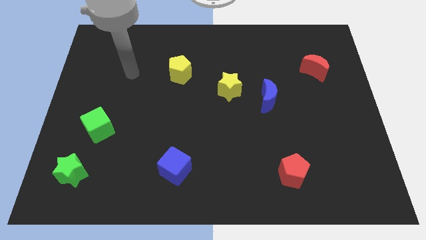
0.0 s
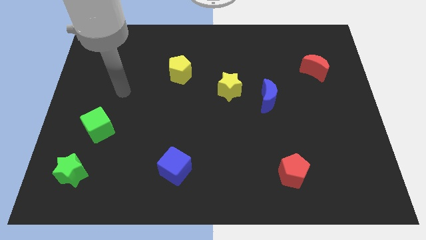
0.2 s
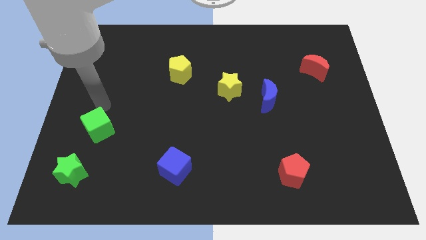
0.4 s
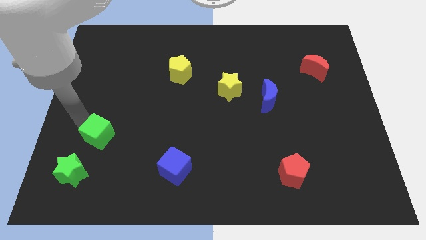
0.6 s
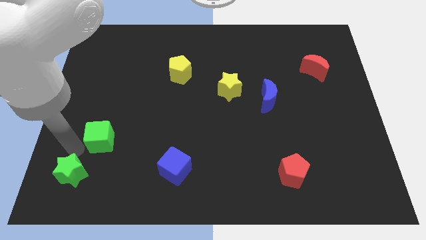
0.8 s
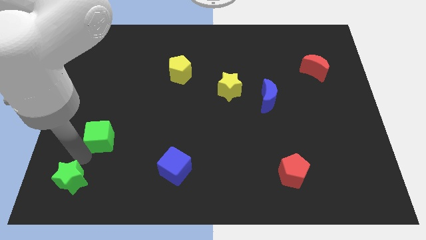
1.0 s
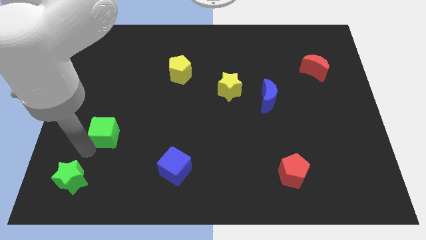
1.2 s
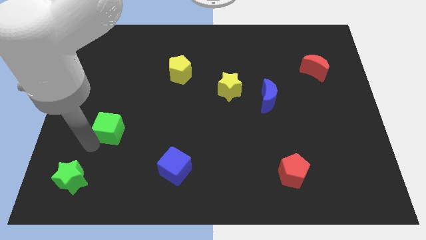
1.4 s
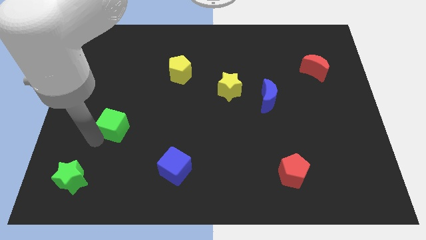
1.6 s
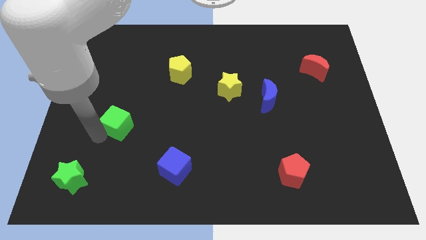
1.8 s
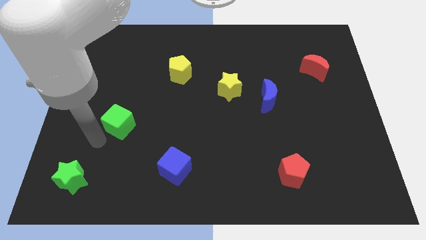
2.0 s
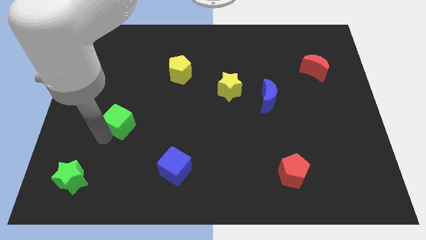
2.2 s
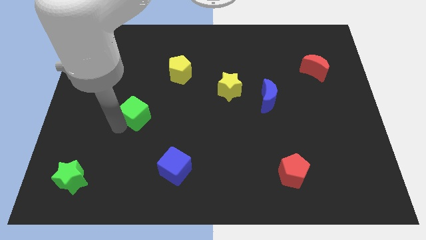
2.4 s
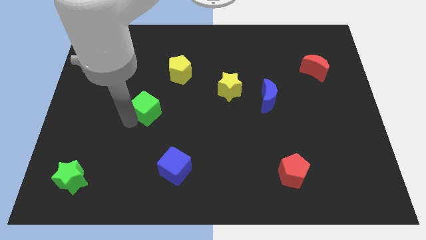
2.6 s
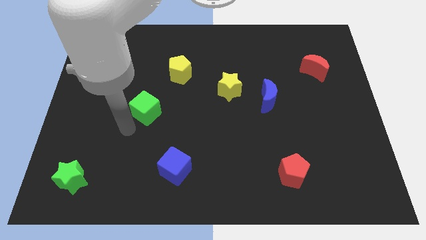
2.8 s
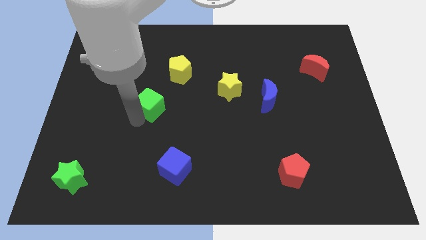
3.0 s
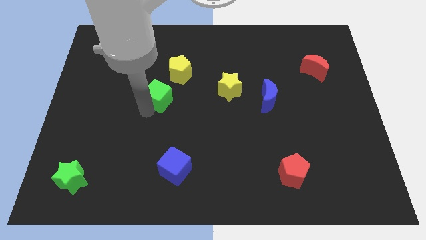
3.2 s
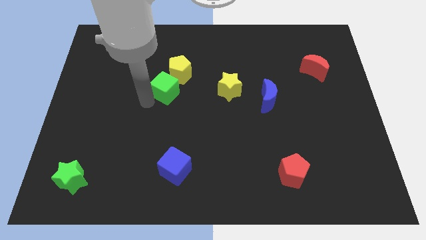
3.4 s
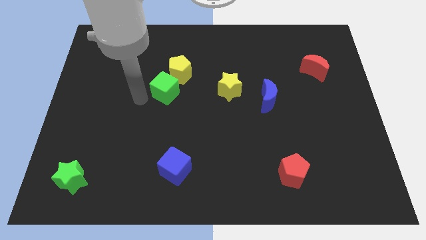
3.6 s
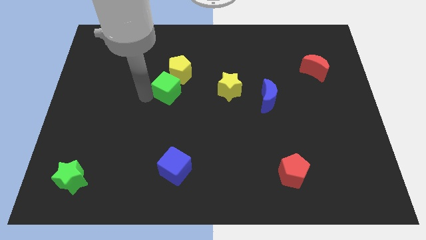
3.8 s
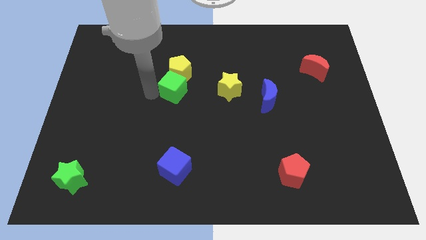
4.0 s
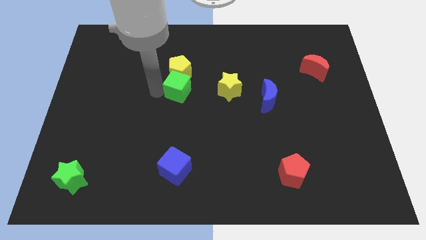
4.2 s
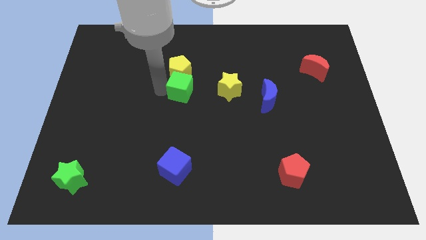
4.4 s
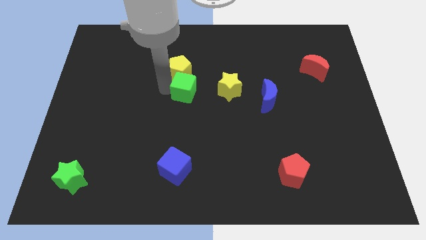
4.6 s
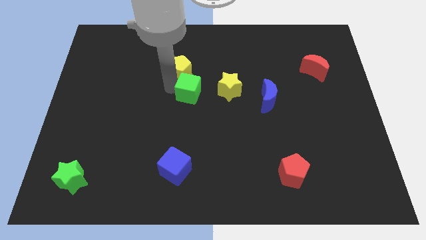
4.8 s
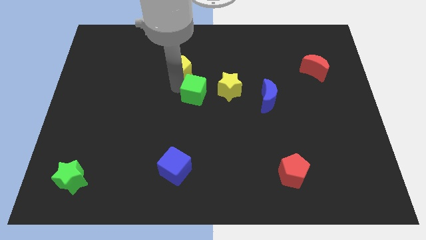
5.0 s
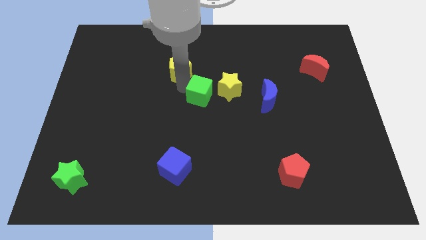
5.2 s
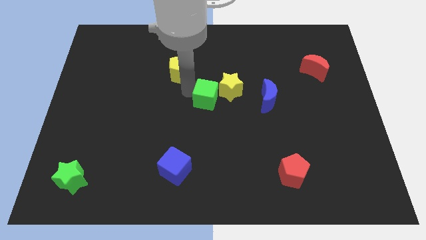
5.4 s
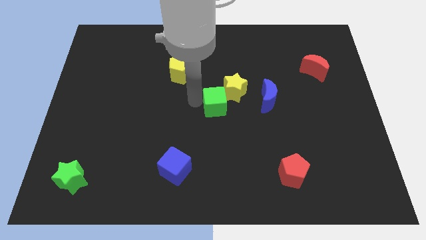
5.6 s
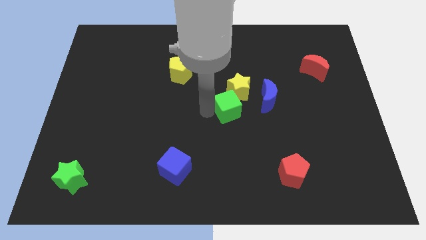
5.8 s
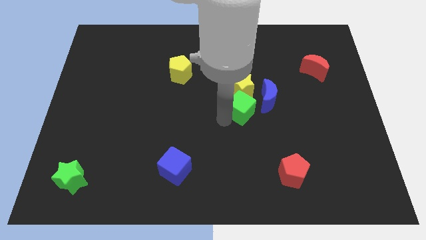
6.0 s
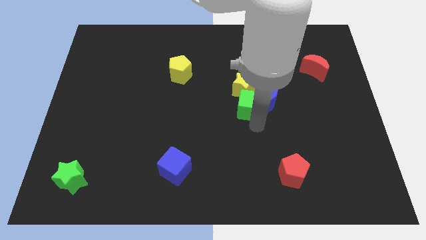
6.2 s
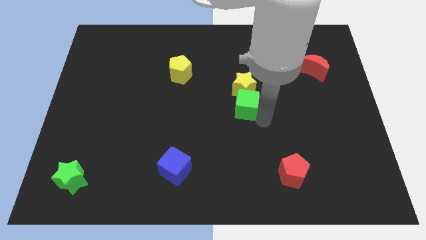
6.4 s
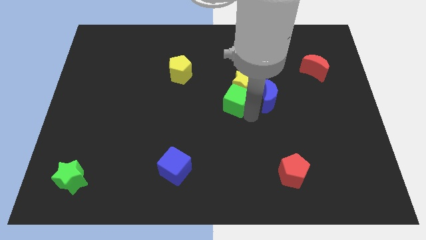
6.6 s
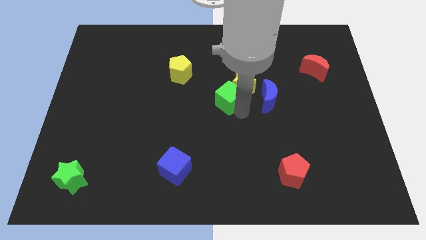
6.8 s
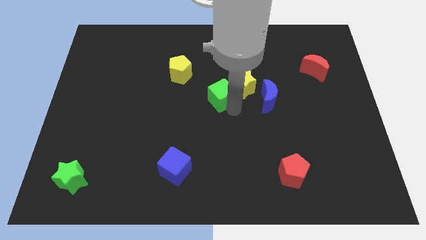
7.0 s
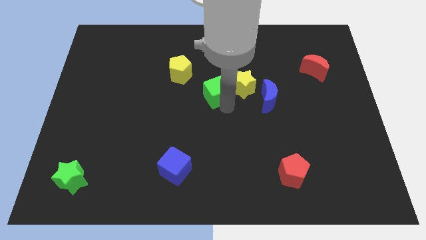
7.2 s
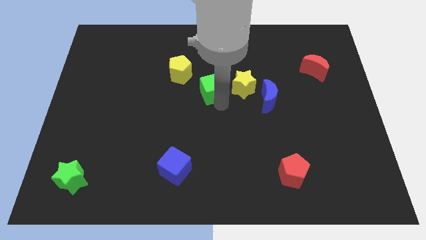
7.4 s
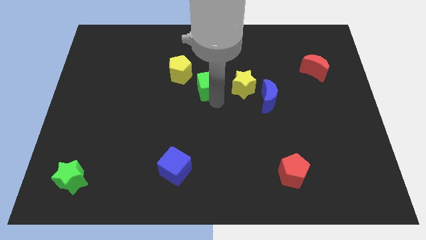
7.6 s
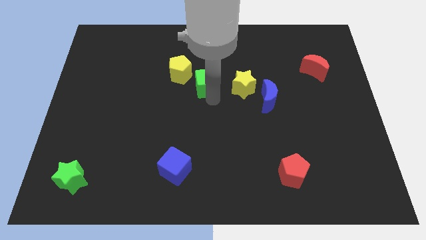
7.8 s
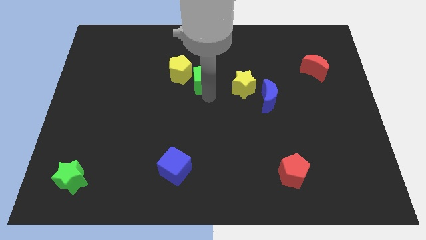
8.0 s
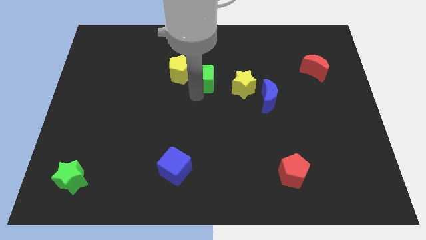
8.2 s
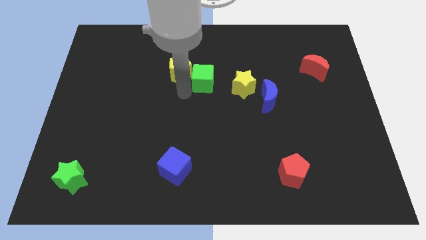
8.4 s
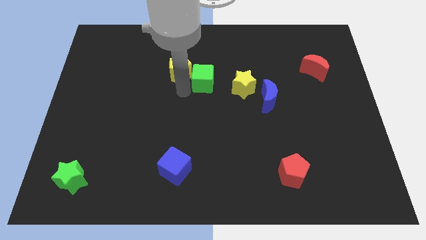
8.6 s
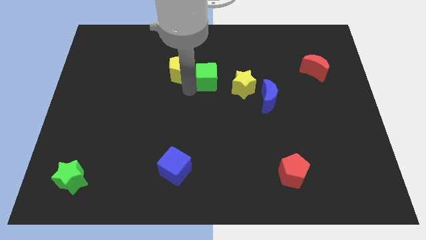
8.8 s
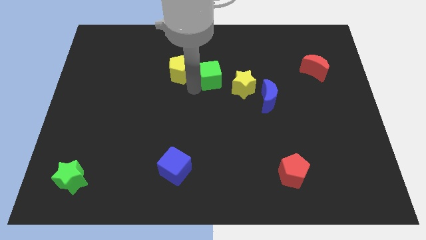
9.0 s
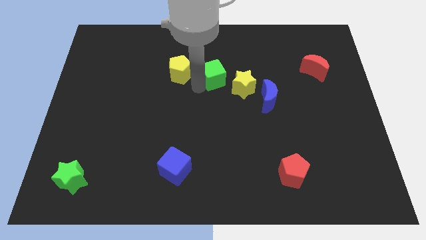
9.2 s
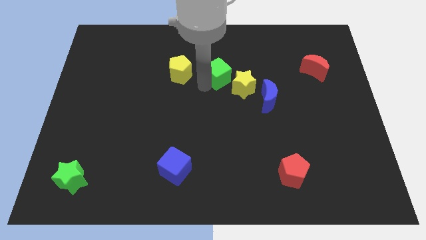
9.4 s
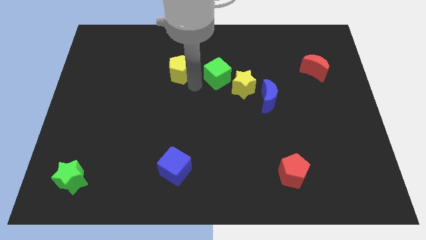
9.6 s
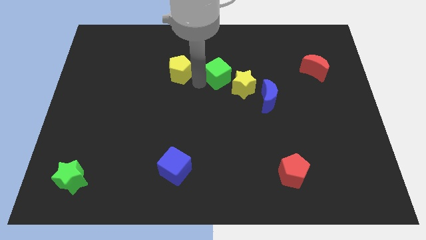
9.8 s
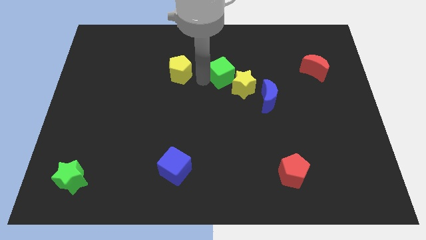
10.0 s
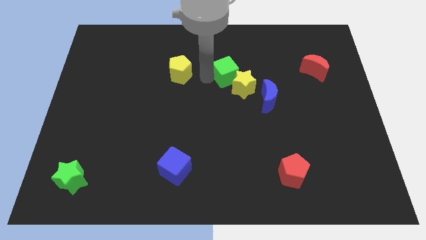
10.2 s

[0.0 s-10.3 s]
put the green cube to the top left side of the blue moon

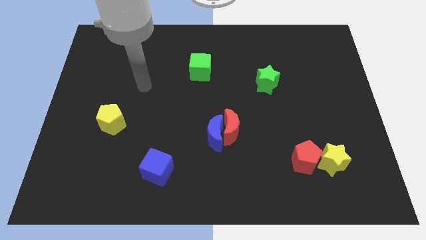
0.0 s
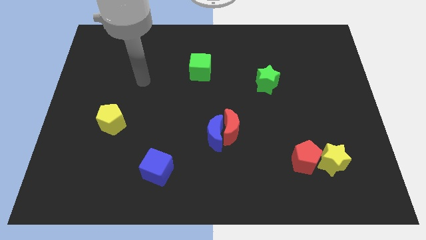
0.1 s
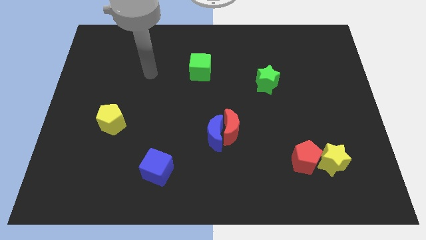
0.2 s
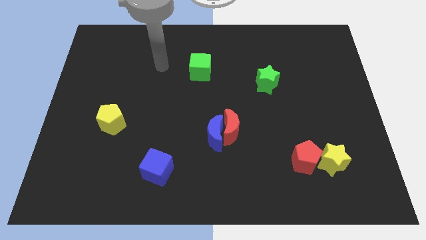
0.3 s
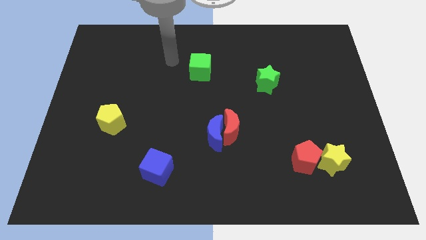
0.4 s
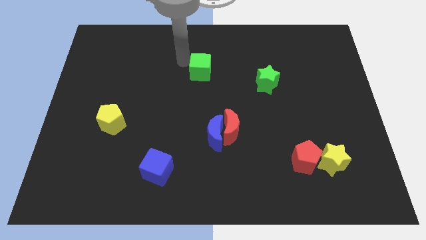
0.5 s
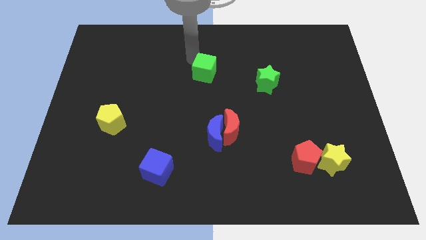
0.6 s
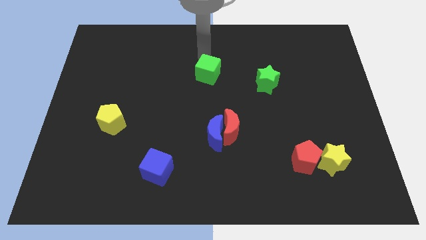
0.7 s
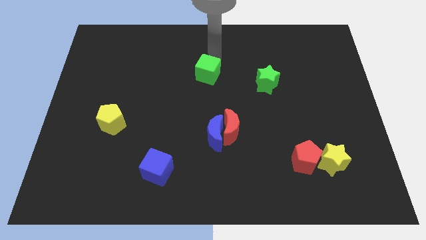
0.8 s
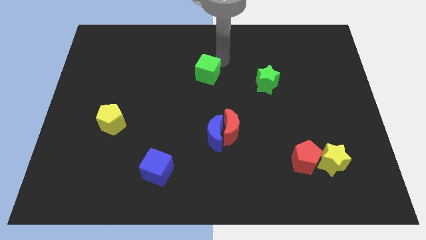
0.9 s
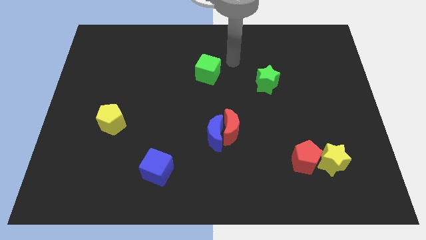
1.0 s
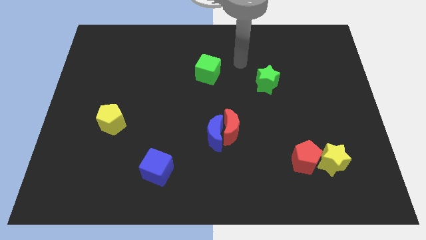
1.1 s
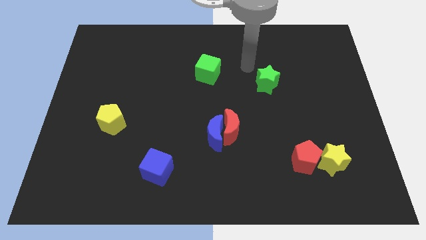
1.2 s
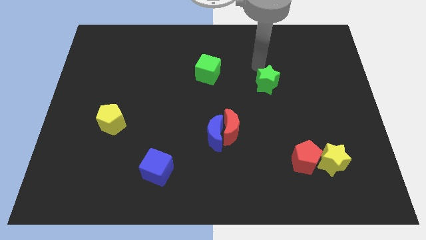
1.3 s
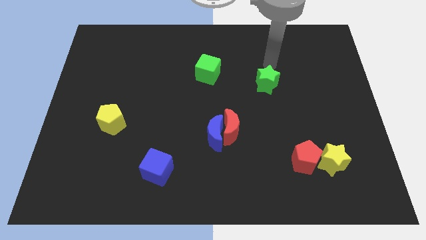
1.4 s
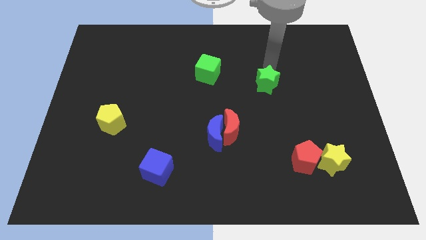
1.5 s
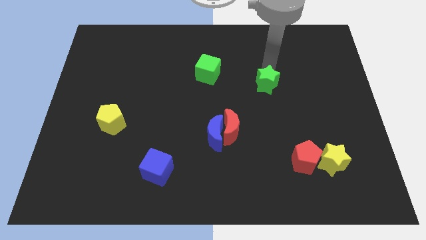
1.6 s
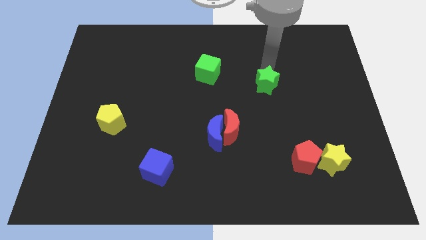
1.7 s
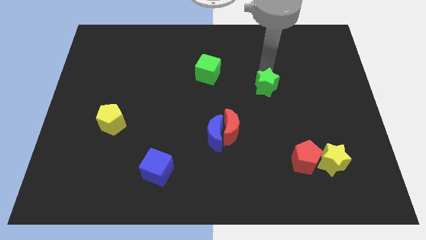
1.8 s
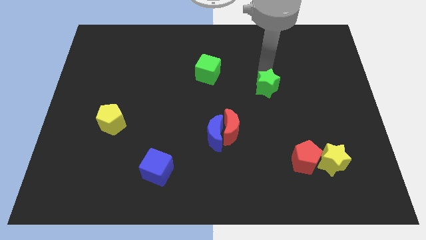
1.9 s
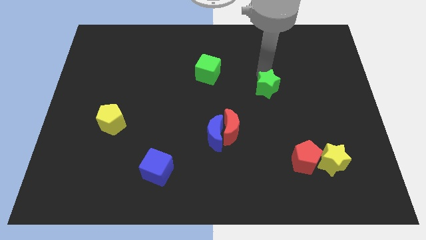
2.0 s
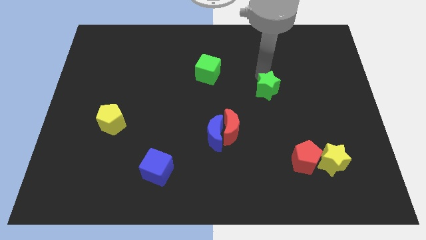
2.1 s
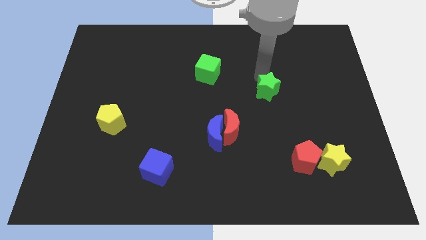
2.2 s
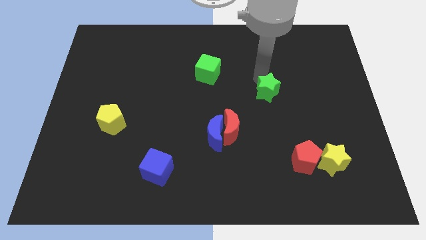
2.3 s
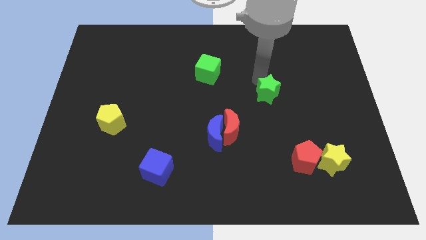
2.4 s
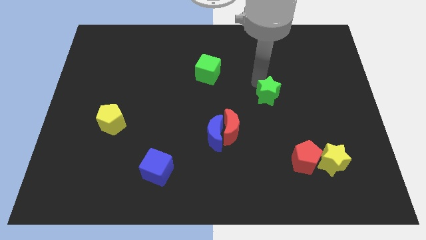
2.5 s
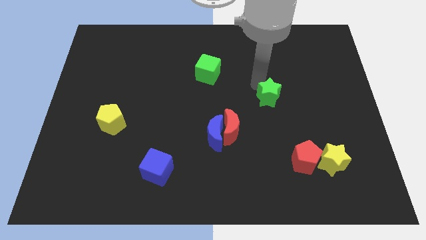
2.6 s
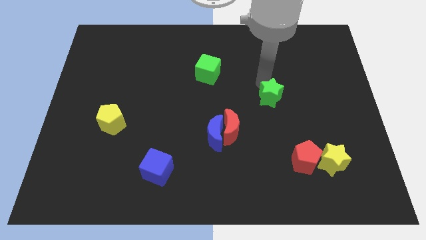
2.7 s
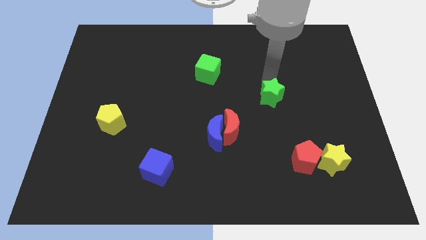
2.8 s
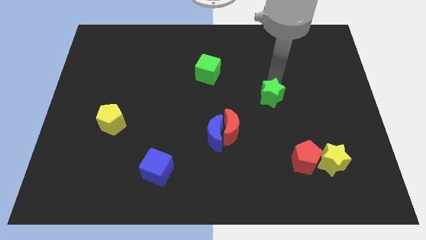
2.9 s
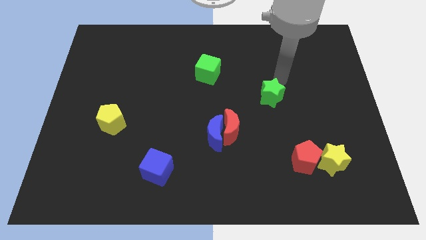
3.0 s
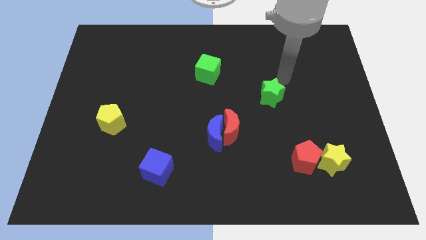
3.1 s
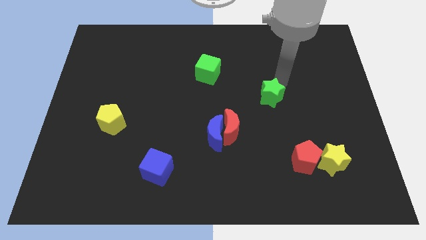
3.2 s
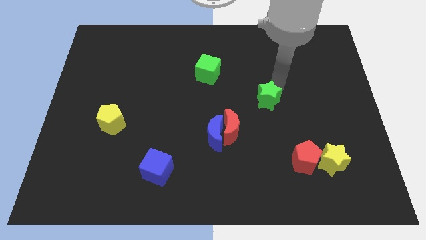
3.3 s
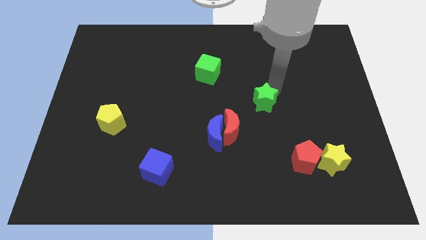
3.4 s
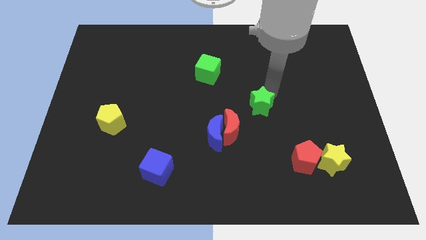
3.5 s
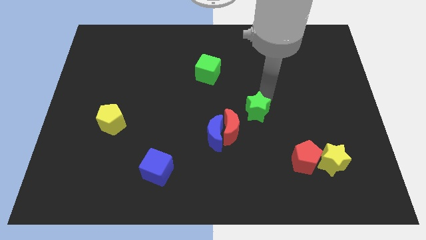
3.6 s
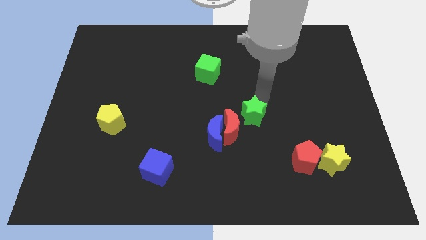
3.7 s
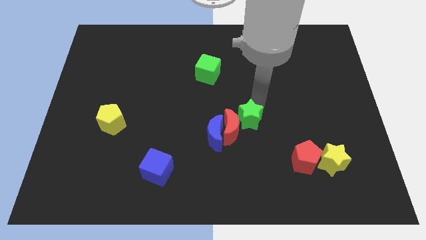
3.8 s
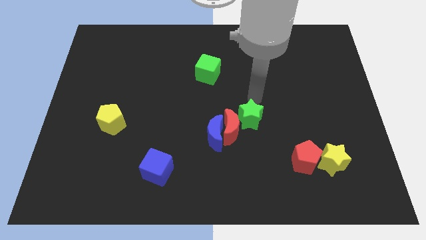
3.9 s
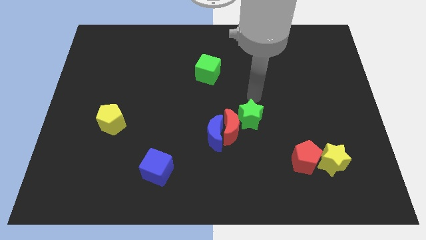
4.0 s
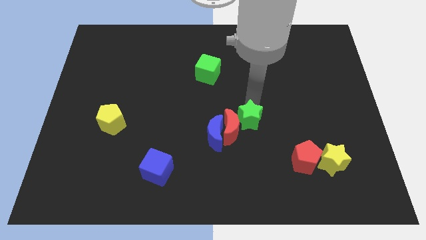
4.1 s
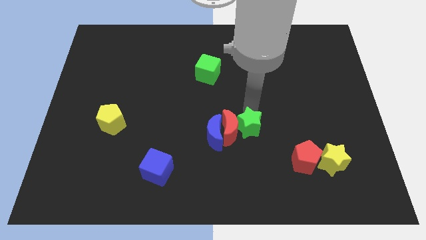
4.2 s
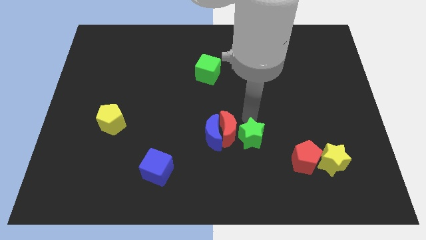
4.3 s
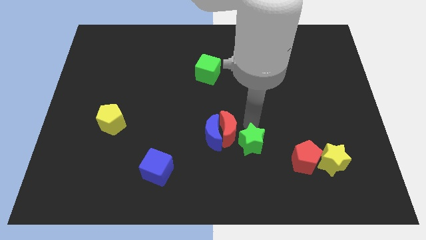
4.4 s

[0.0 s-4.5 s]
move the green star to the bottom right side of the blue moon
